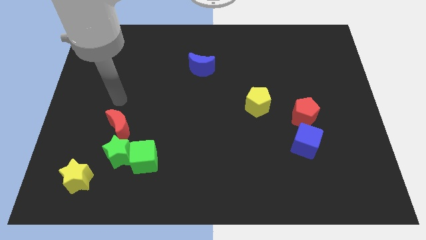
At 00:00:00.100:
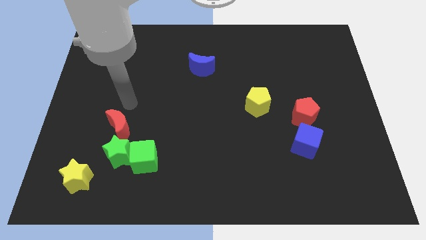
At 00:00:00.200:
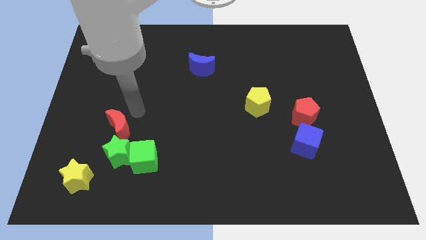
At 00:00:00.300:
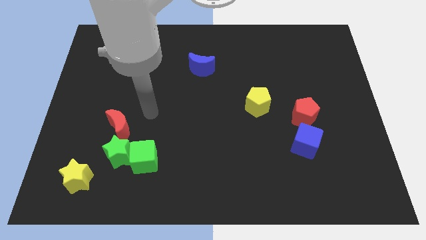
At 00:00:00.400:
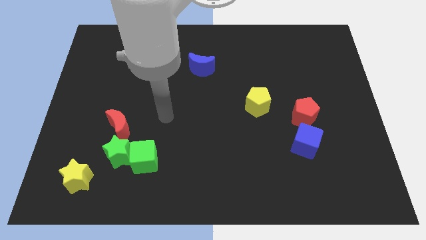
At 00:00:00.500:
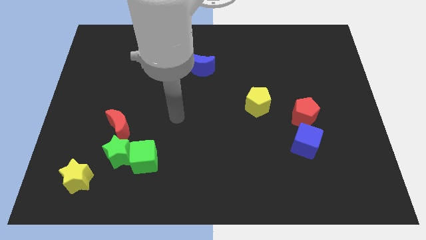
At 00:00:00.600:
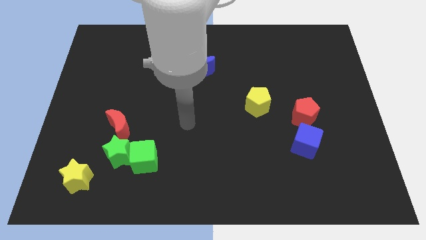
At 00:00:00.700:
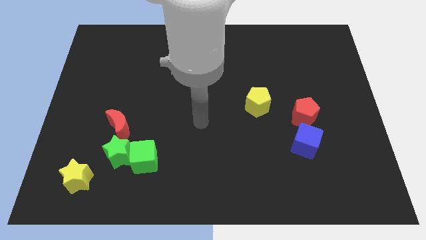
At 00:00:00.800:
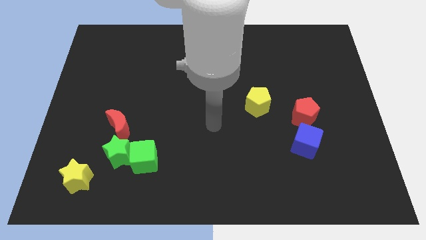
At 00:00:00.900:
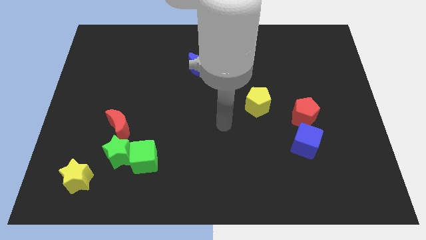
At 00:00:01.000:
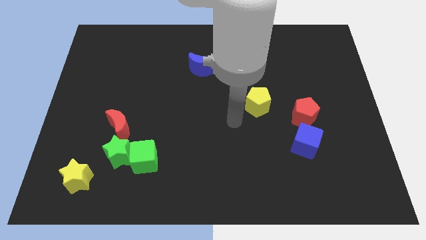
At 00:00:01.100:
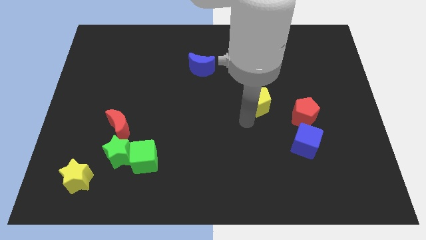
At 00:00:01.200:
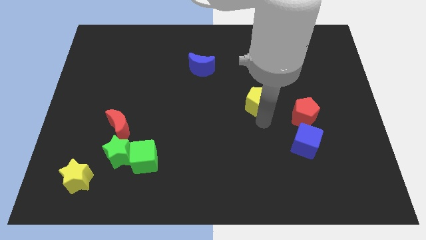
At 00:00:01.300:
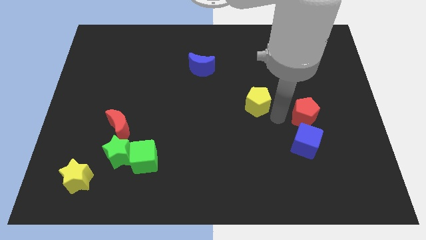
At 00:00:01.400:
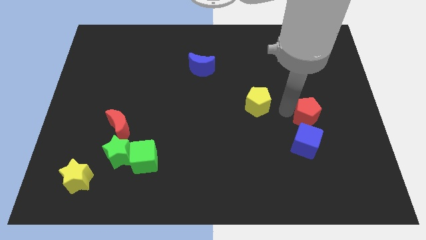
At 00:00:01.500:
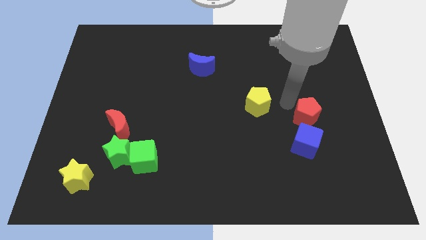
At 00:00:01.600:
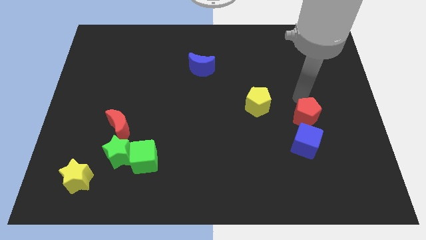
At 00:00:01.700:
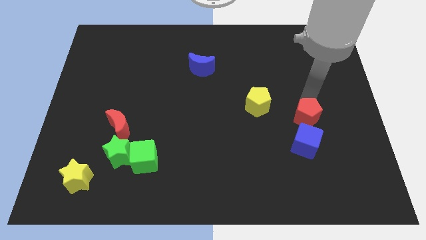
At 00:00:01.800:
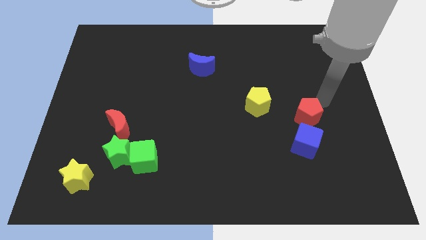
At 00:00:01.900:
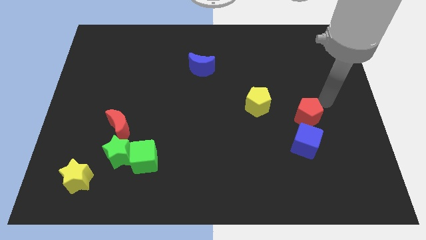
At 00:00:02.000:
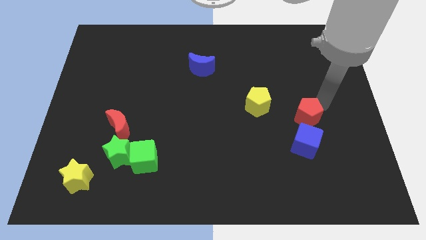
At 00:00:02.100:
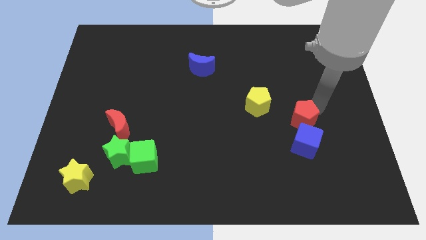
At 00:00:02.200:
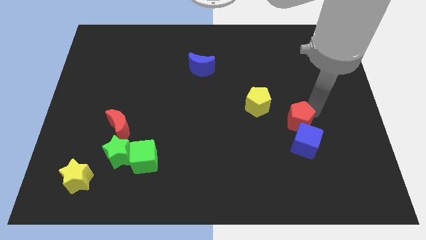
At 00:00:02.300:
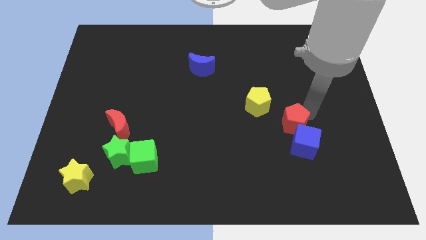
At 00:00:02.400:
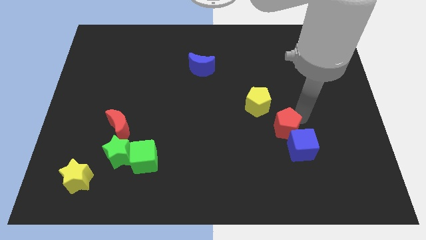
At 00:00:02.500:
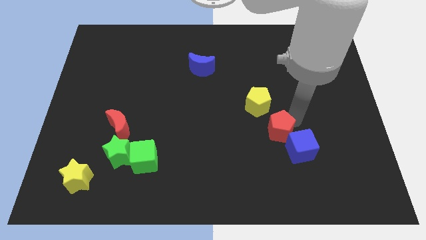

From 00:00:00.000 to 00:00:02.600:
slightly slide the red pentagon down and to the left diagonally

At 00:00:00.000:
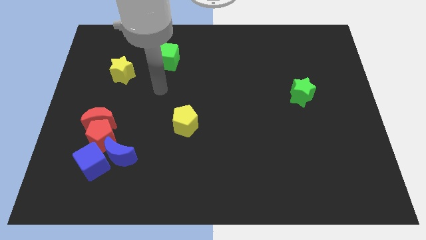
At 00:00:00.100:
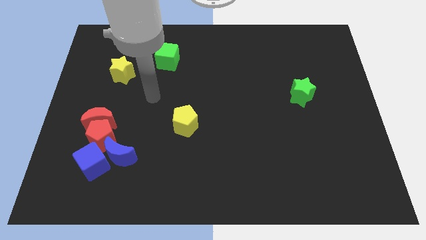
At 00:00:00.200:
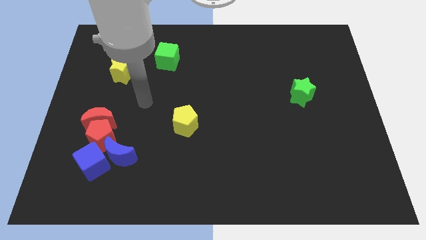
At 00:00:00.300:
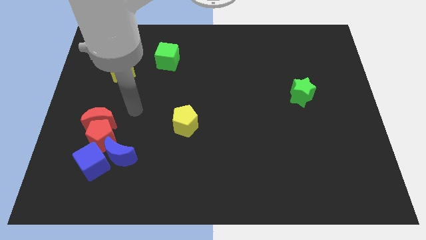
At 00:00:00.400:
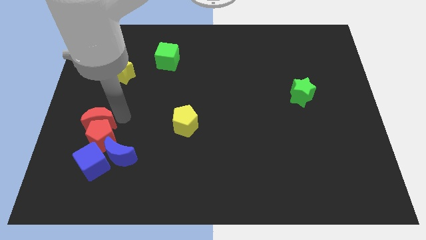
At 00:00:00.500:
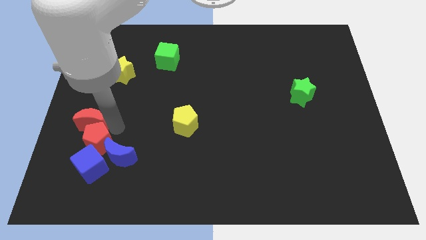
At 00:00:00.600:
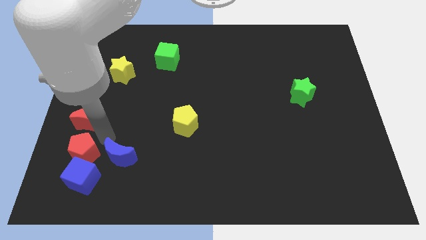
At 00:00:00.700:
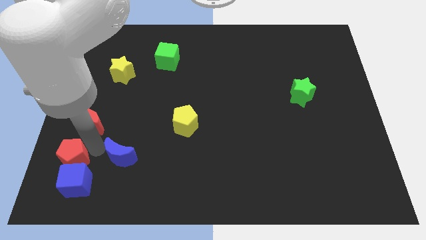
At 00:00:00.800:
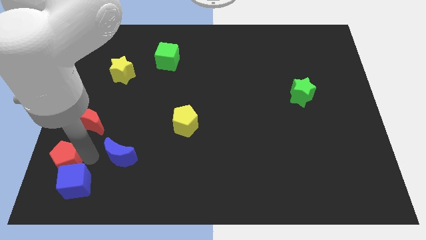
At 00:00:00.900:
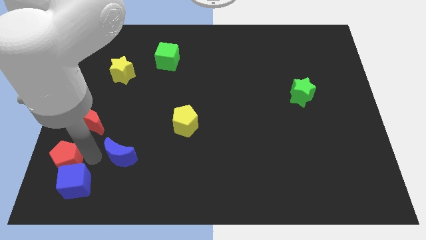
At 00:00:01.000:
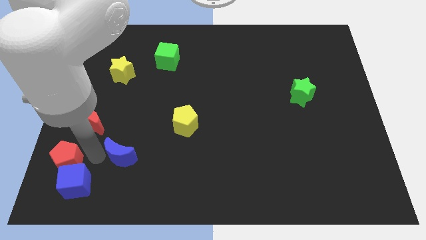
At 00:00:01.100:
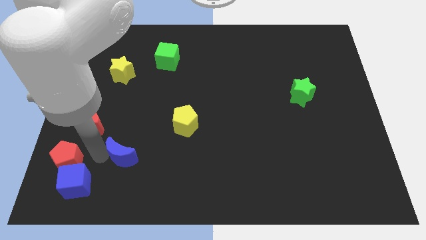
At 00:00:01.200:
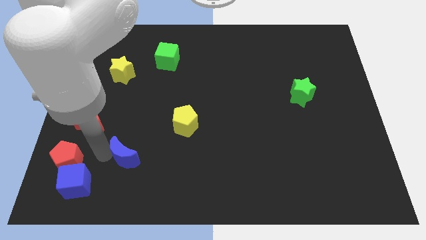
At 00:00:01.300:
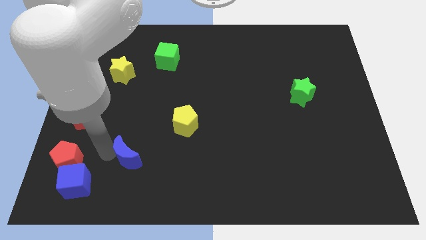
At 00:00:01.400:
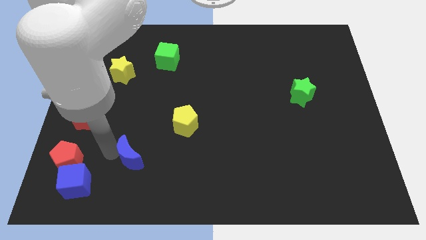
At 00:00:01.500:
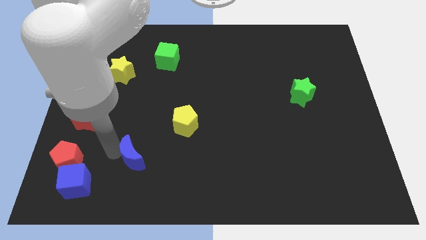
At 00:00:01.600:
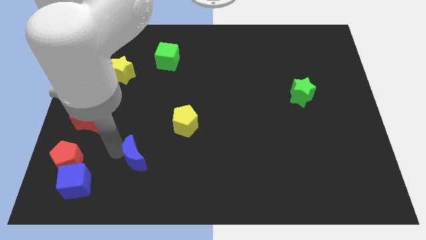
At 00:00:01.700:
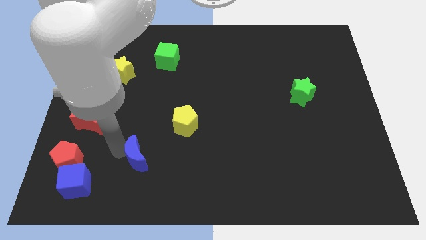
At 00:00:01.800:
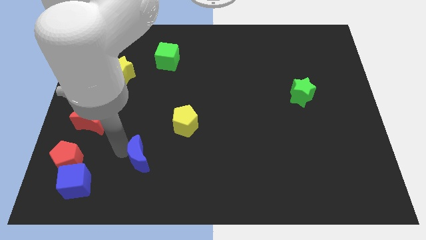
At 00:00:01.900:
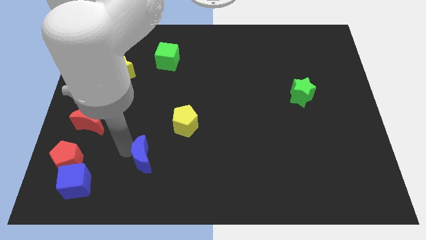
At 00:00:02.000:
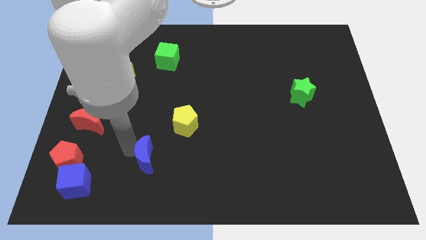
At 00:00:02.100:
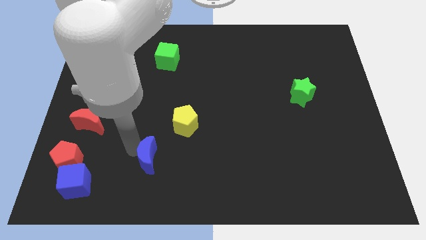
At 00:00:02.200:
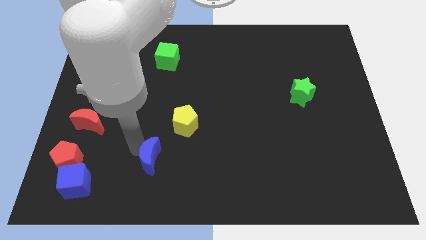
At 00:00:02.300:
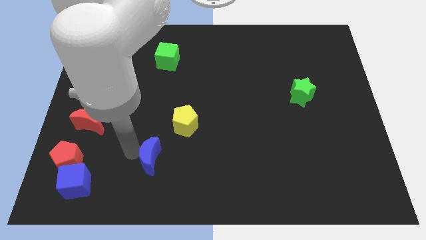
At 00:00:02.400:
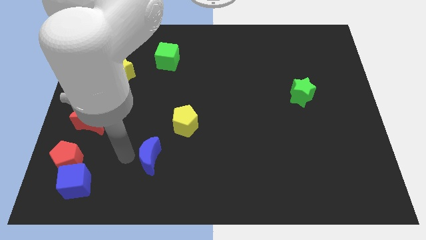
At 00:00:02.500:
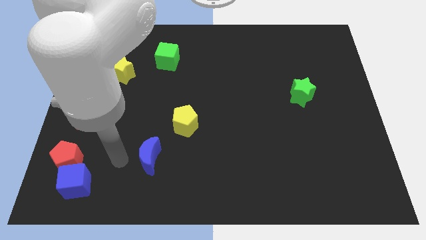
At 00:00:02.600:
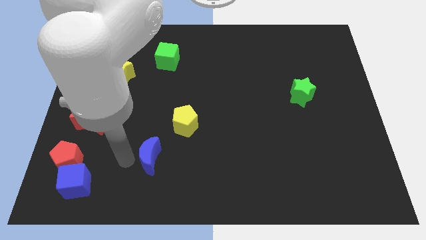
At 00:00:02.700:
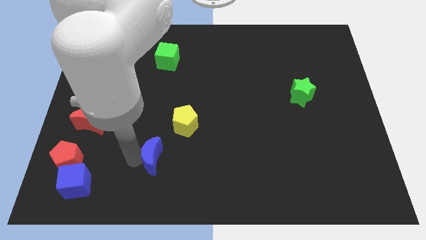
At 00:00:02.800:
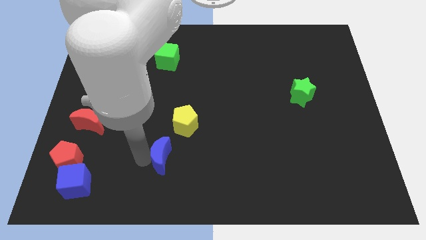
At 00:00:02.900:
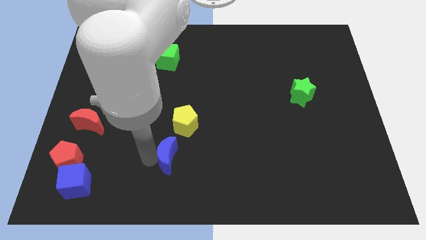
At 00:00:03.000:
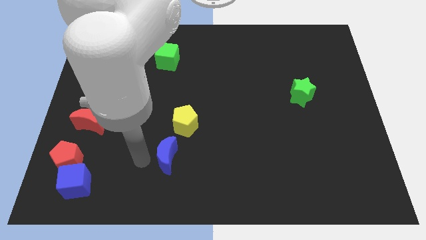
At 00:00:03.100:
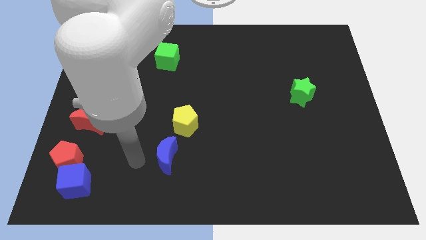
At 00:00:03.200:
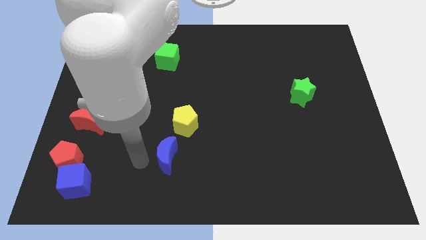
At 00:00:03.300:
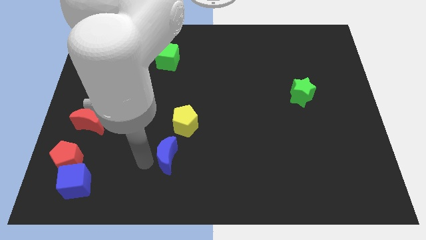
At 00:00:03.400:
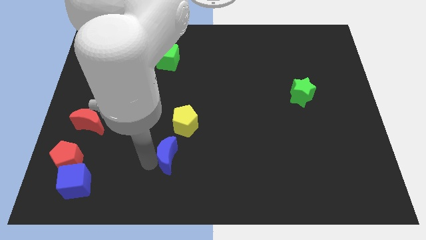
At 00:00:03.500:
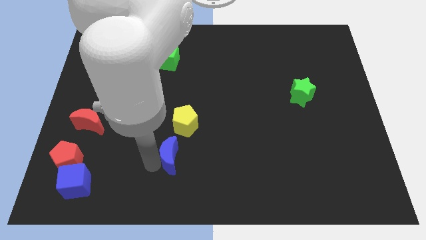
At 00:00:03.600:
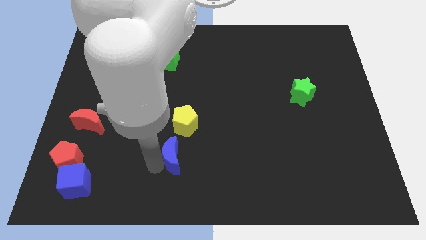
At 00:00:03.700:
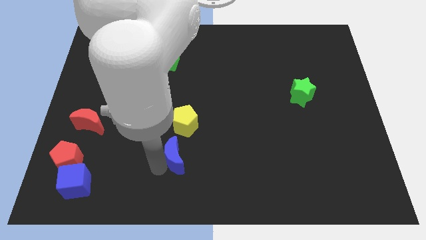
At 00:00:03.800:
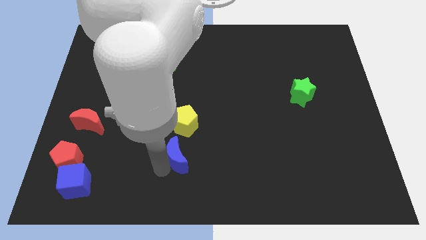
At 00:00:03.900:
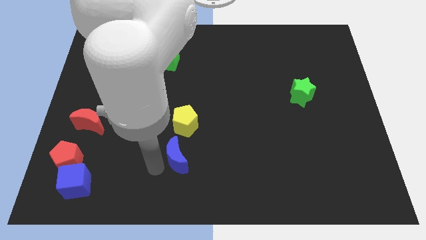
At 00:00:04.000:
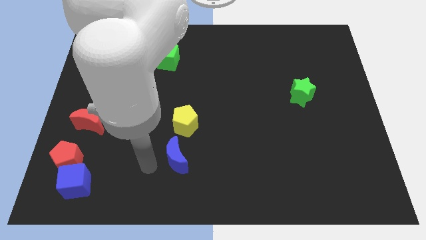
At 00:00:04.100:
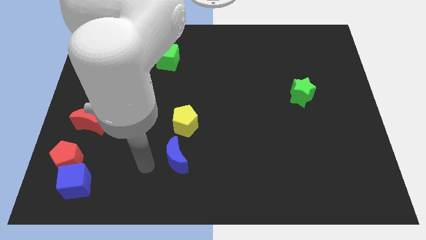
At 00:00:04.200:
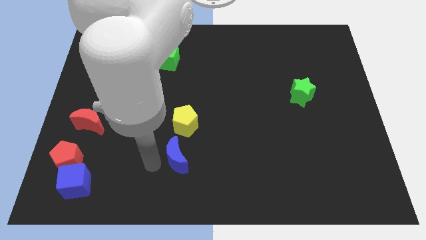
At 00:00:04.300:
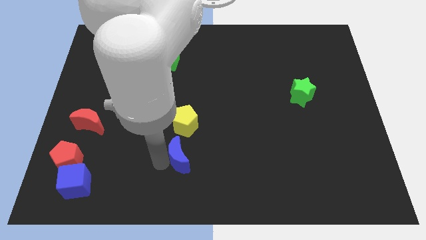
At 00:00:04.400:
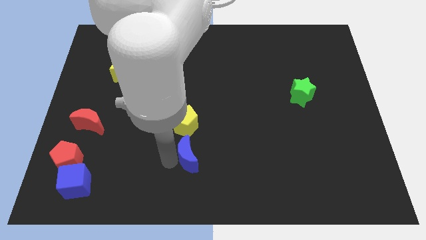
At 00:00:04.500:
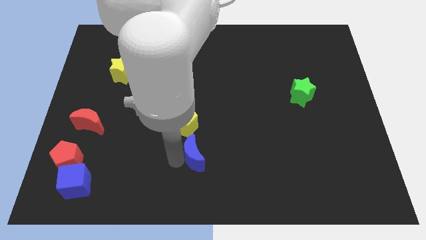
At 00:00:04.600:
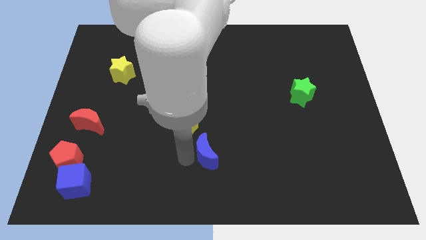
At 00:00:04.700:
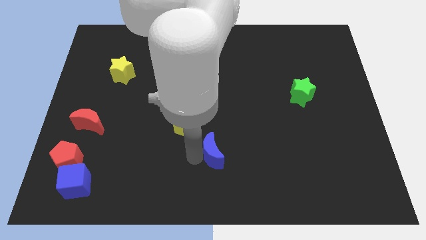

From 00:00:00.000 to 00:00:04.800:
move the blue moon to the right

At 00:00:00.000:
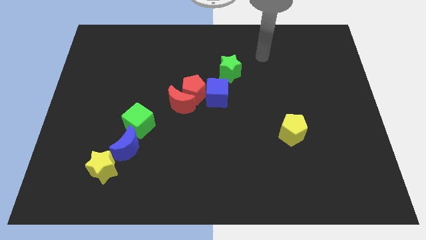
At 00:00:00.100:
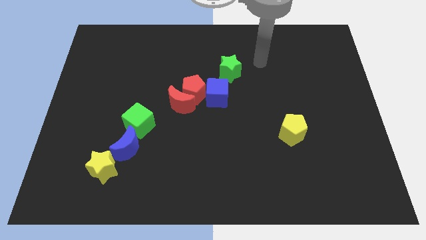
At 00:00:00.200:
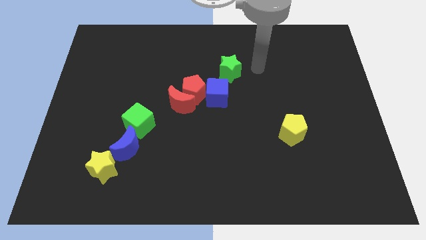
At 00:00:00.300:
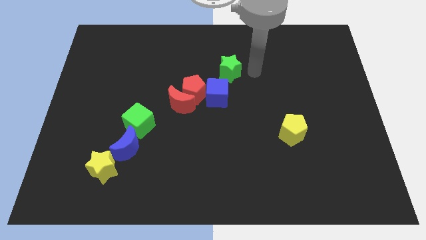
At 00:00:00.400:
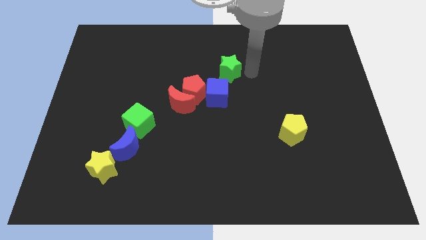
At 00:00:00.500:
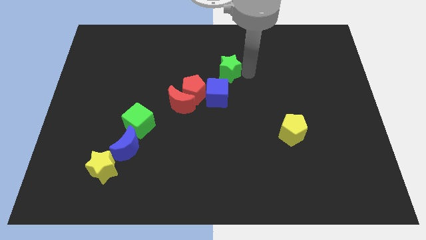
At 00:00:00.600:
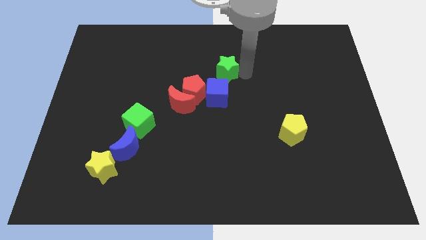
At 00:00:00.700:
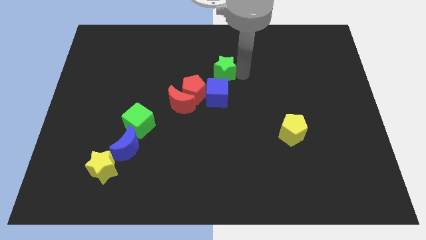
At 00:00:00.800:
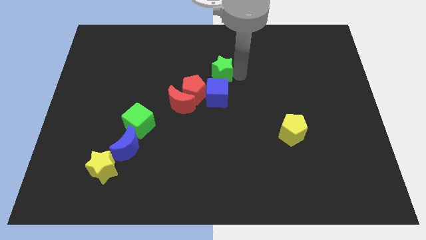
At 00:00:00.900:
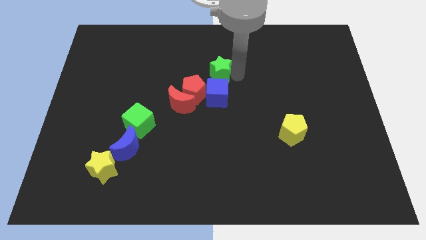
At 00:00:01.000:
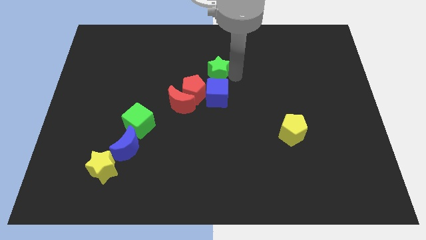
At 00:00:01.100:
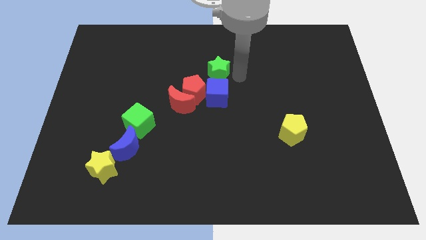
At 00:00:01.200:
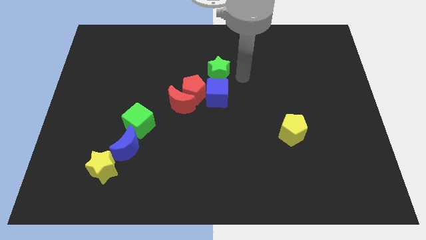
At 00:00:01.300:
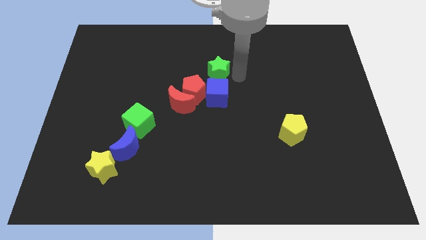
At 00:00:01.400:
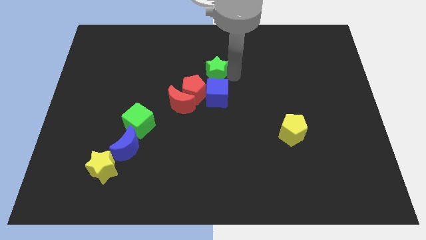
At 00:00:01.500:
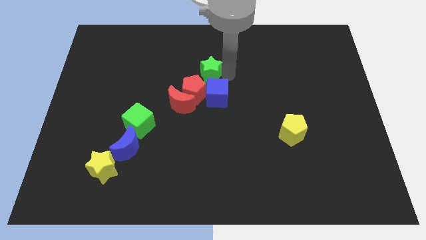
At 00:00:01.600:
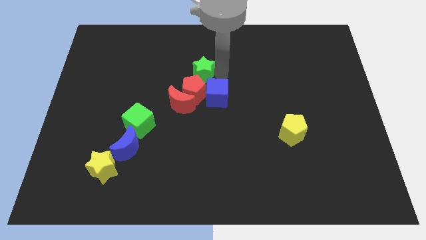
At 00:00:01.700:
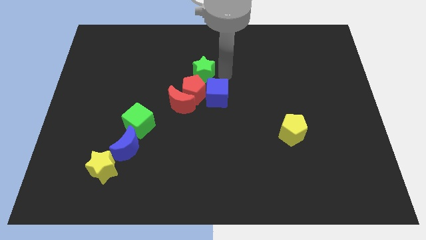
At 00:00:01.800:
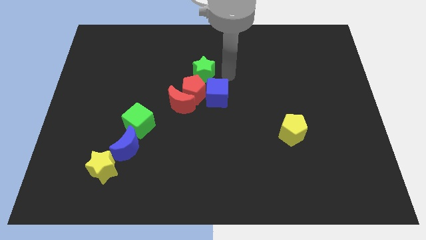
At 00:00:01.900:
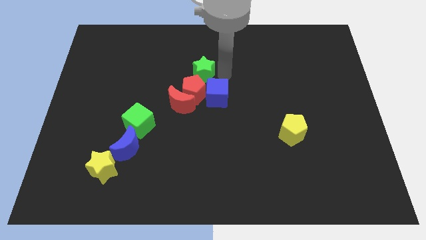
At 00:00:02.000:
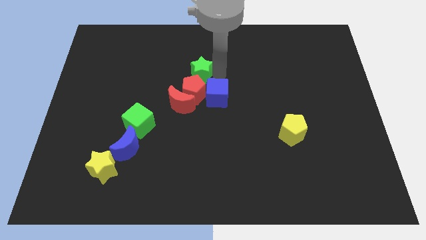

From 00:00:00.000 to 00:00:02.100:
push the green star left a little
